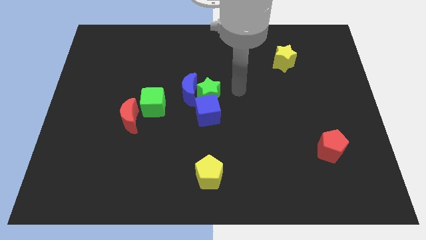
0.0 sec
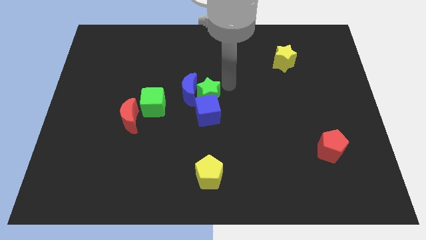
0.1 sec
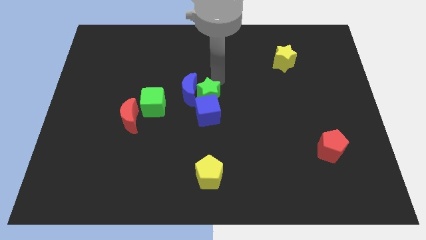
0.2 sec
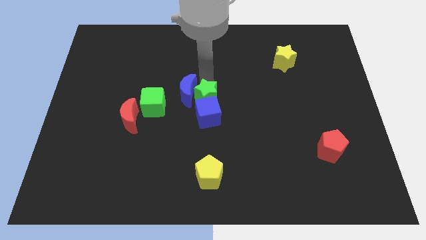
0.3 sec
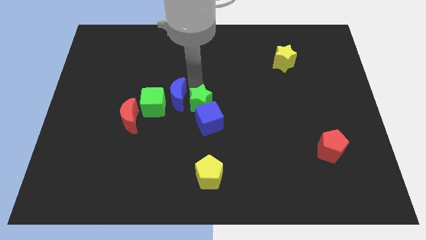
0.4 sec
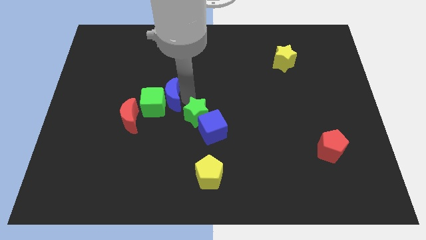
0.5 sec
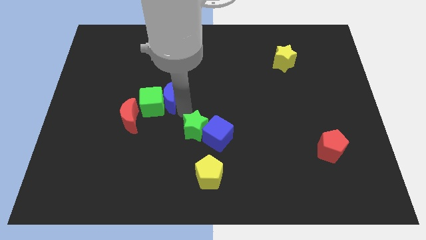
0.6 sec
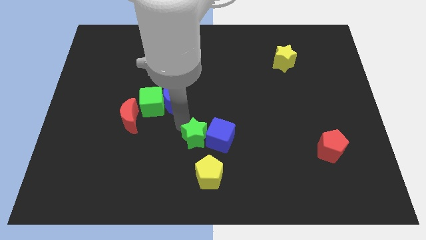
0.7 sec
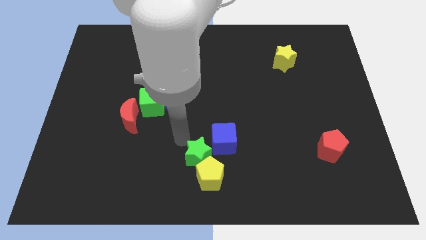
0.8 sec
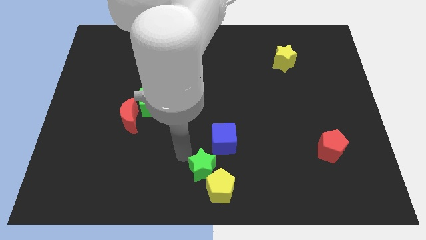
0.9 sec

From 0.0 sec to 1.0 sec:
move the green star away from the blue moon and blue cube

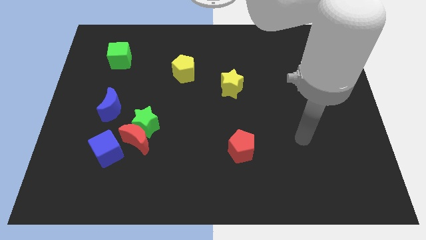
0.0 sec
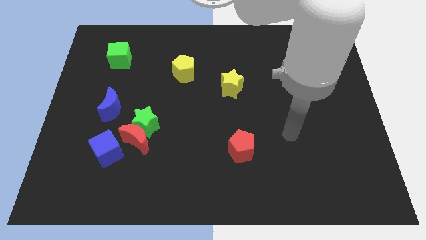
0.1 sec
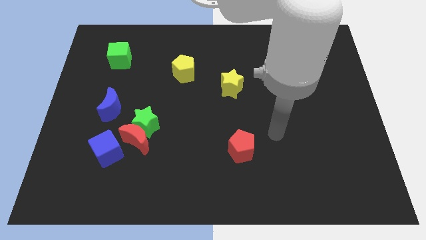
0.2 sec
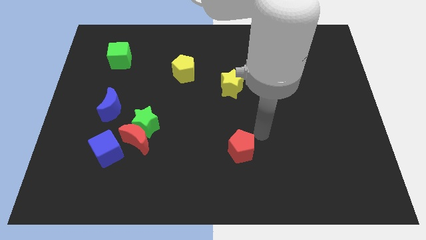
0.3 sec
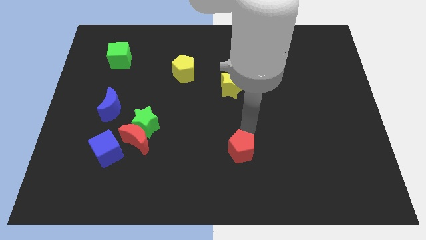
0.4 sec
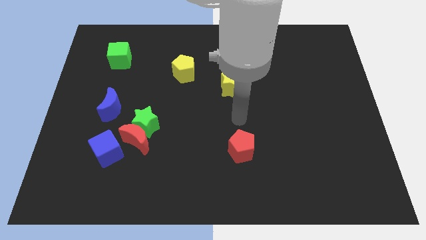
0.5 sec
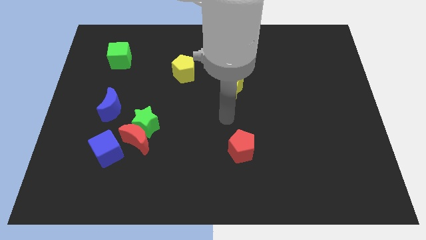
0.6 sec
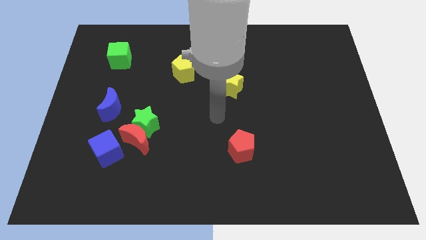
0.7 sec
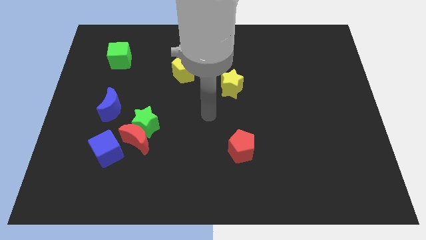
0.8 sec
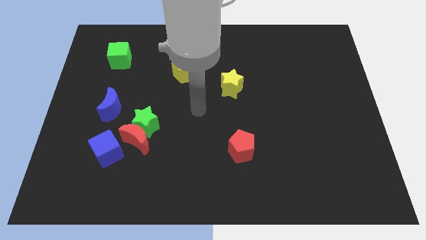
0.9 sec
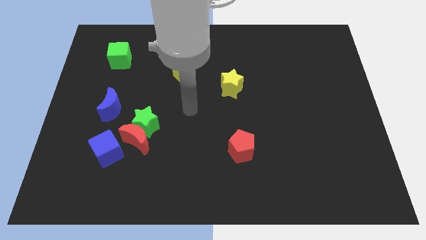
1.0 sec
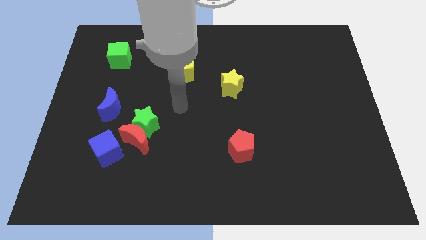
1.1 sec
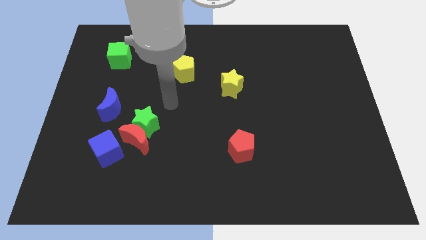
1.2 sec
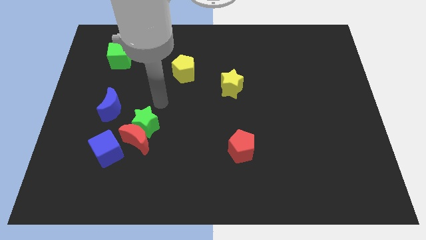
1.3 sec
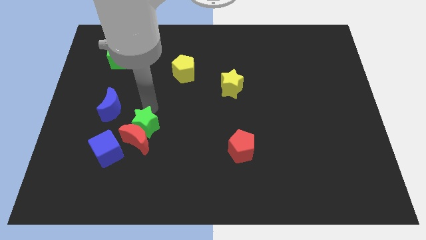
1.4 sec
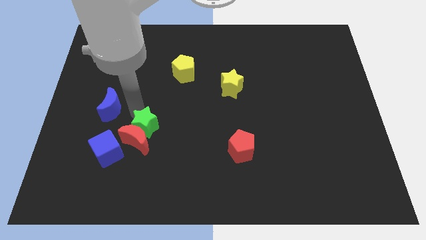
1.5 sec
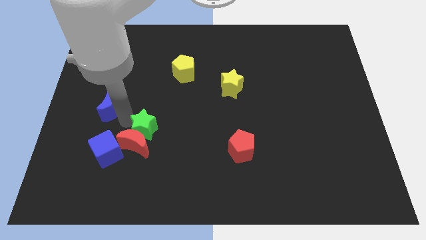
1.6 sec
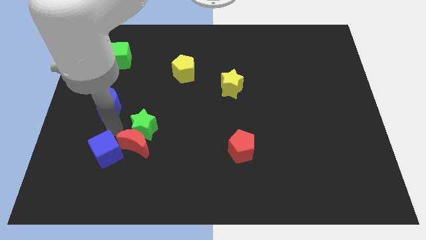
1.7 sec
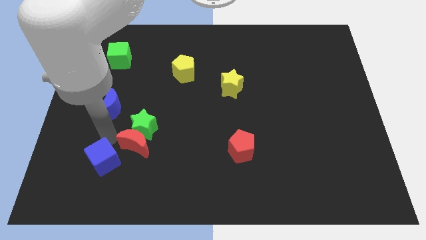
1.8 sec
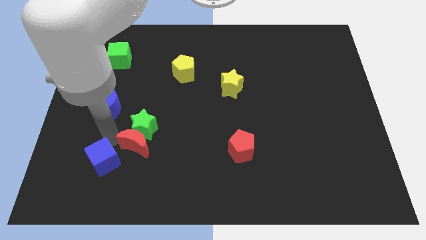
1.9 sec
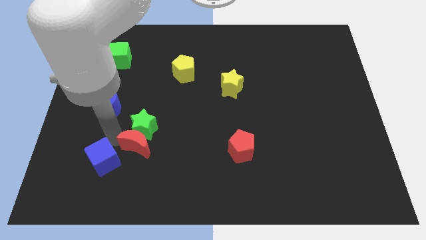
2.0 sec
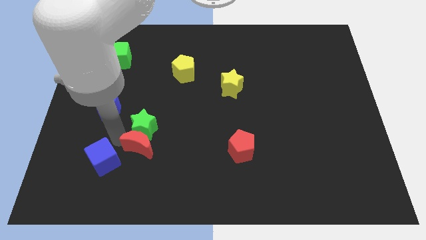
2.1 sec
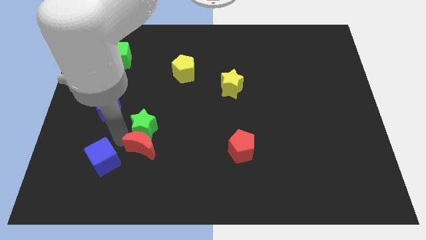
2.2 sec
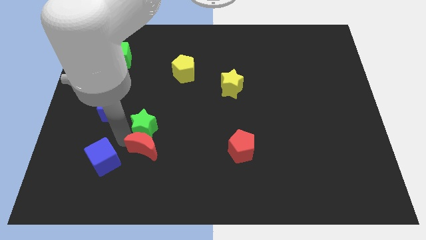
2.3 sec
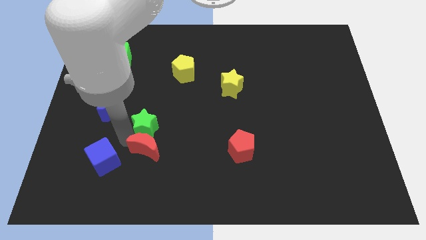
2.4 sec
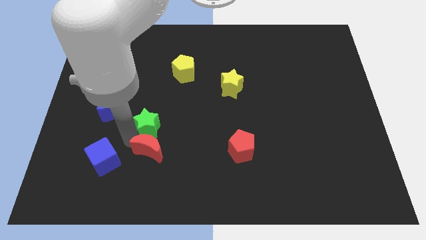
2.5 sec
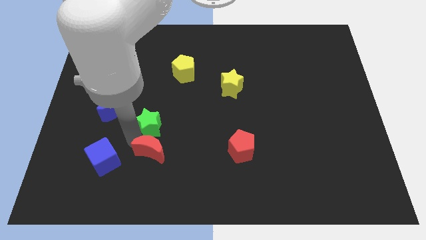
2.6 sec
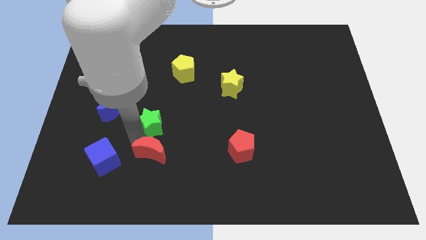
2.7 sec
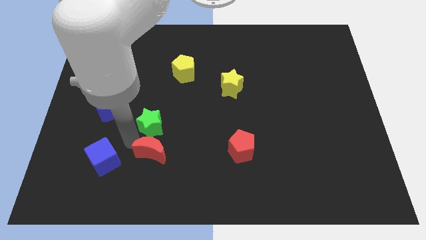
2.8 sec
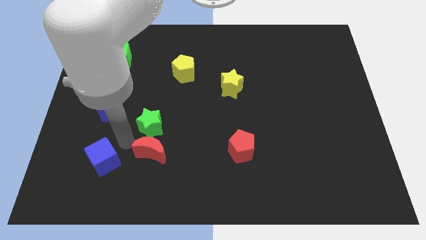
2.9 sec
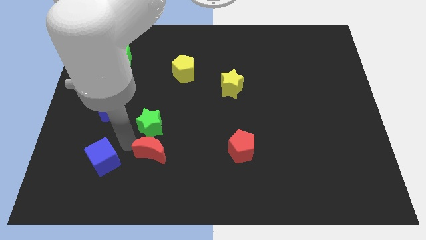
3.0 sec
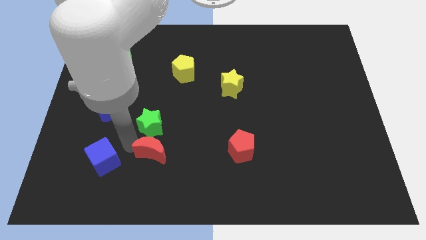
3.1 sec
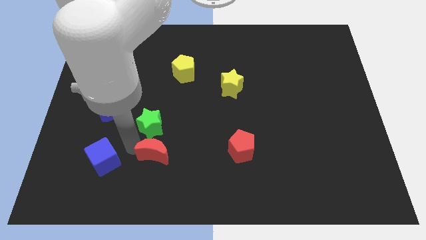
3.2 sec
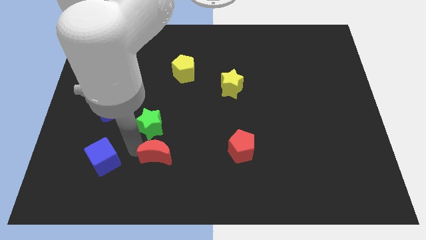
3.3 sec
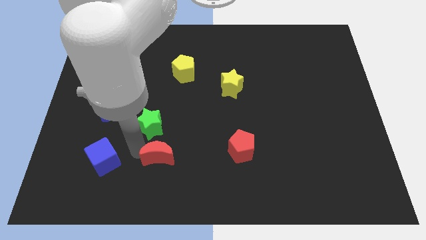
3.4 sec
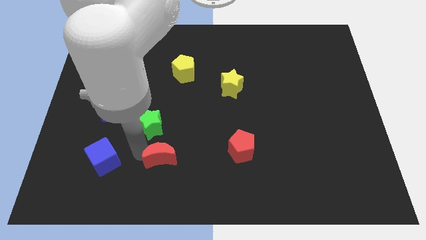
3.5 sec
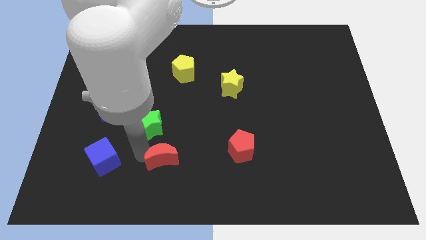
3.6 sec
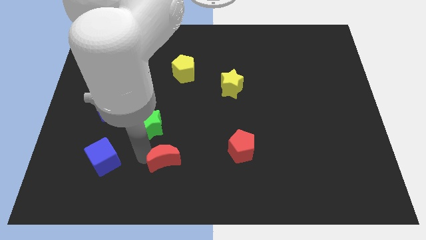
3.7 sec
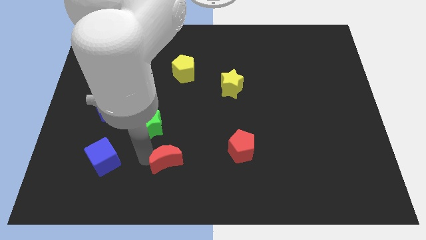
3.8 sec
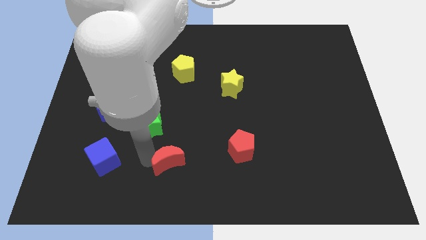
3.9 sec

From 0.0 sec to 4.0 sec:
move the red moon away from the green star and blue cube

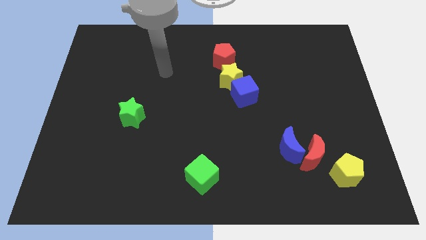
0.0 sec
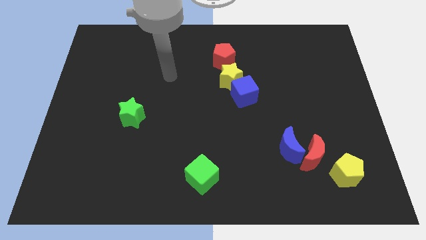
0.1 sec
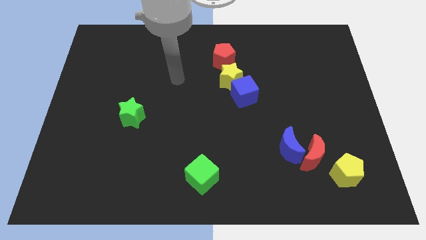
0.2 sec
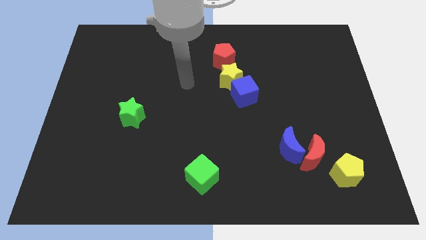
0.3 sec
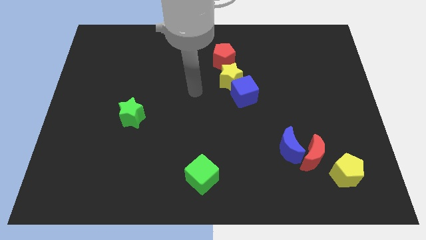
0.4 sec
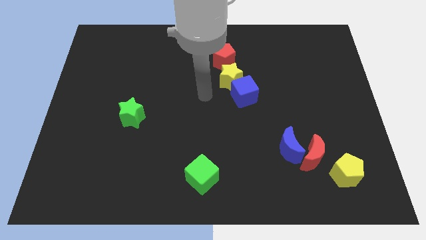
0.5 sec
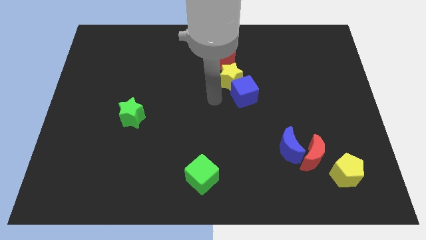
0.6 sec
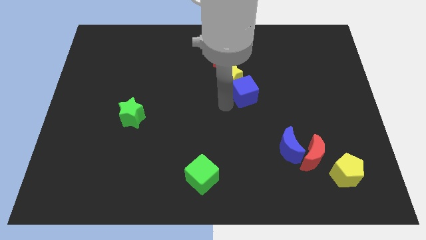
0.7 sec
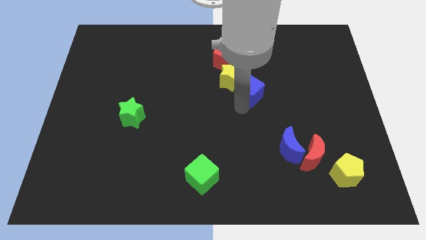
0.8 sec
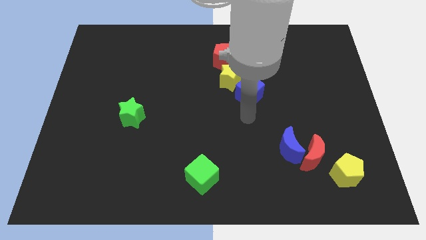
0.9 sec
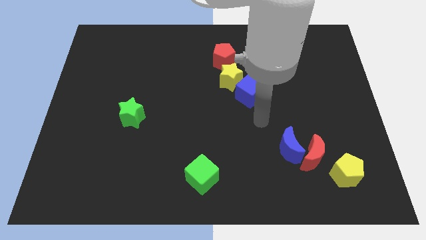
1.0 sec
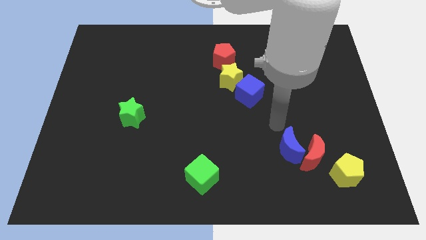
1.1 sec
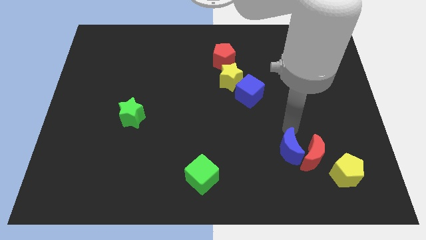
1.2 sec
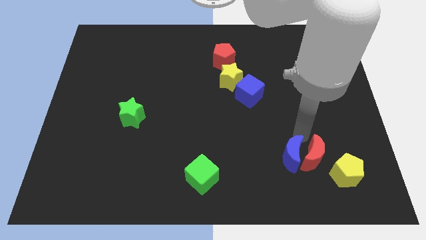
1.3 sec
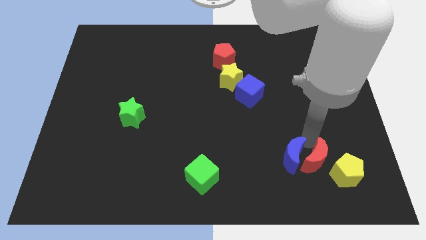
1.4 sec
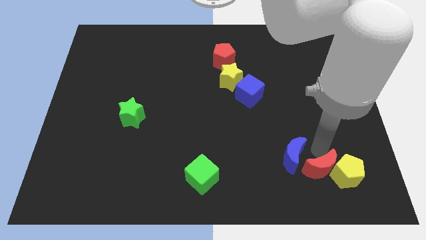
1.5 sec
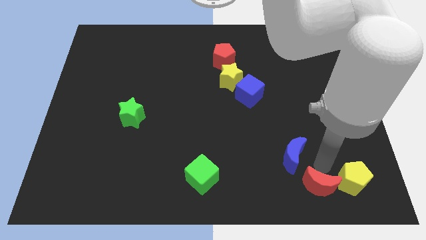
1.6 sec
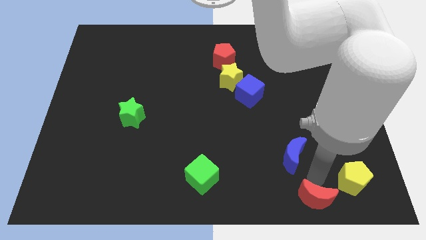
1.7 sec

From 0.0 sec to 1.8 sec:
separate the blue moon from the red moon

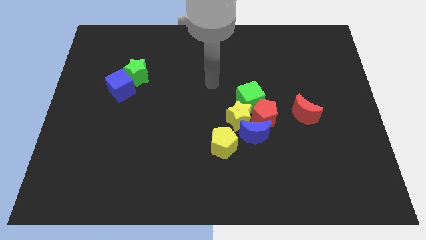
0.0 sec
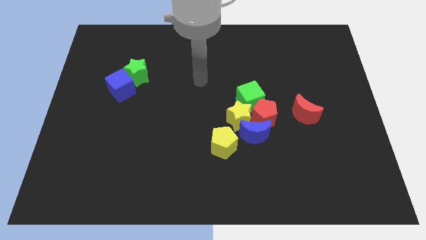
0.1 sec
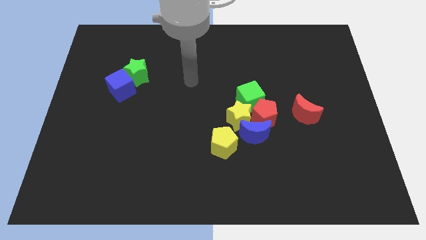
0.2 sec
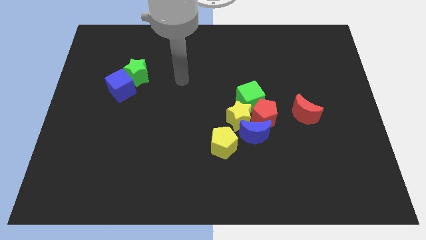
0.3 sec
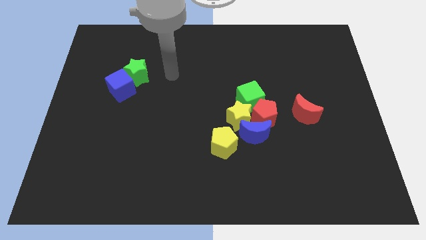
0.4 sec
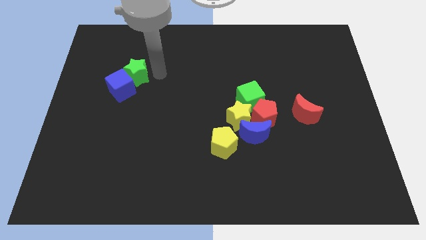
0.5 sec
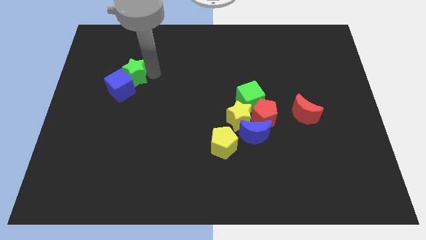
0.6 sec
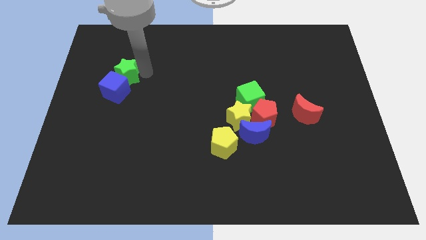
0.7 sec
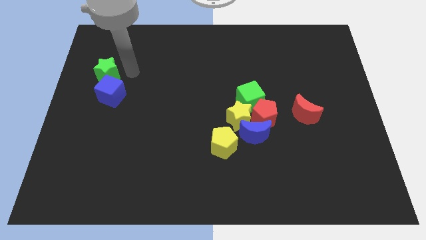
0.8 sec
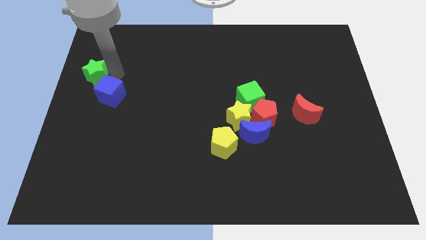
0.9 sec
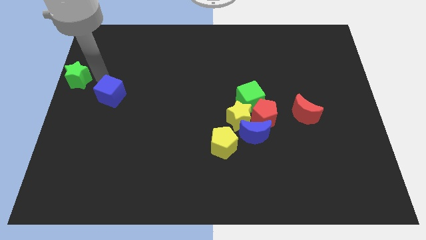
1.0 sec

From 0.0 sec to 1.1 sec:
pull the blue cube apart from the green star

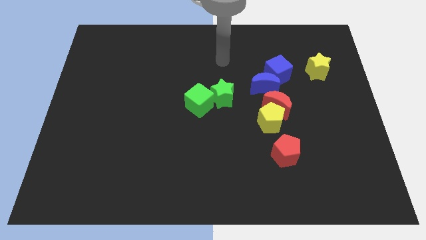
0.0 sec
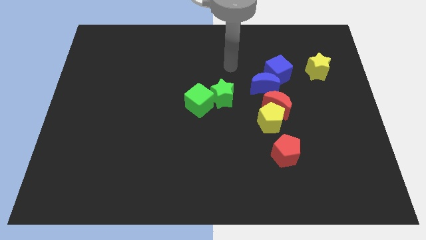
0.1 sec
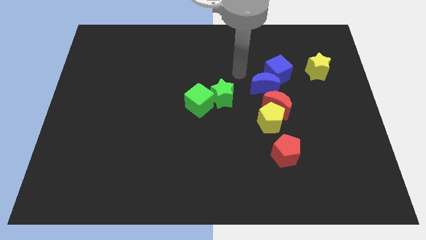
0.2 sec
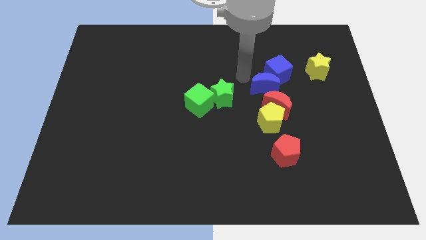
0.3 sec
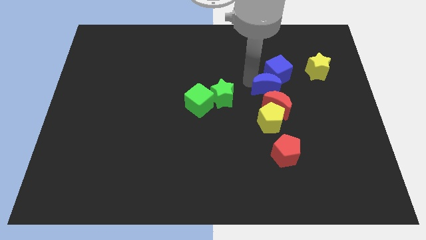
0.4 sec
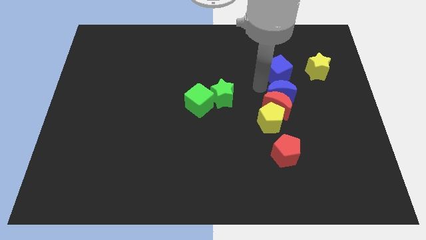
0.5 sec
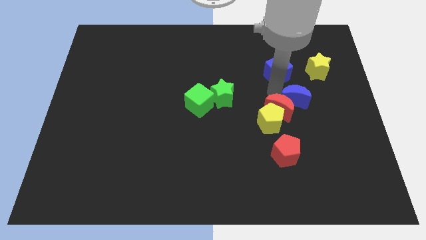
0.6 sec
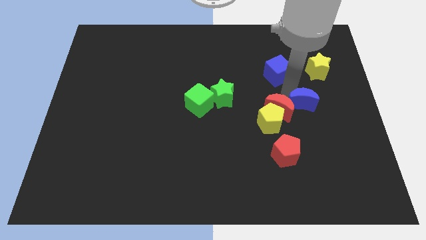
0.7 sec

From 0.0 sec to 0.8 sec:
move the blue cube away from the blue moon

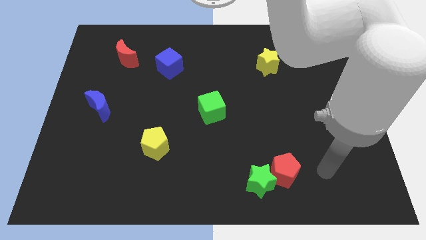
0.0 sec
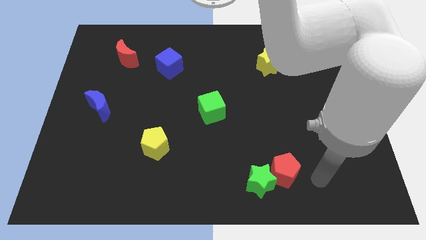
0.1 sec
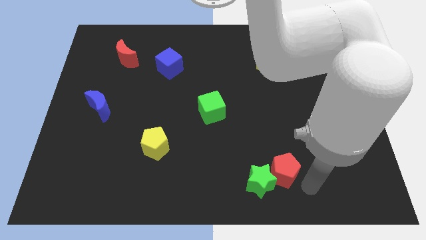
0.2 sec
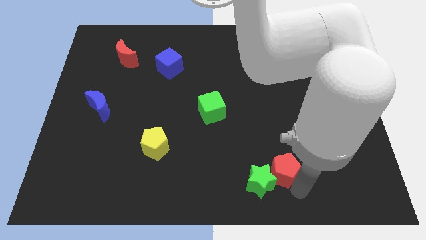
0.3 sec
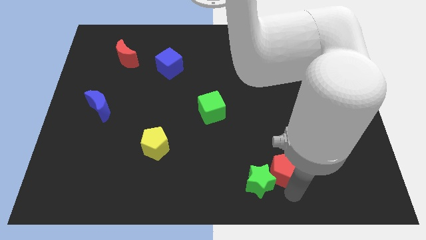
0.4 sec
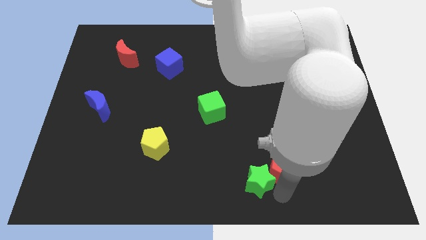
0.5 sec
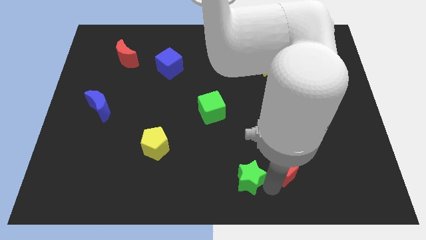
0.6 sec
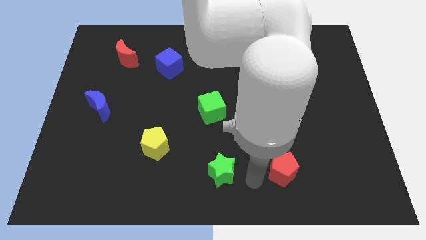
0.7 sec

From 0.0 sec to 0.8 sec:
pull the red pentagon apart from the green star
